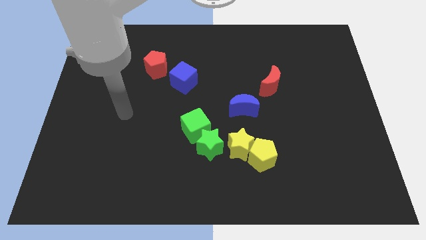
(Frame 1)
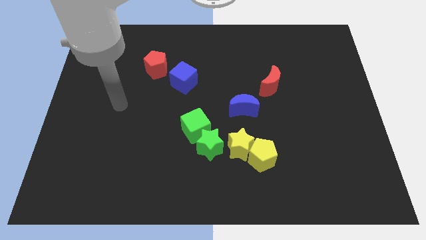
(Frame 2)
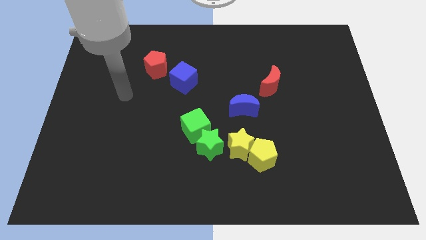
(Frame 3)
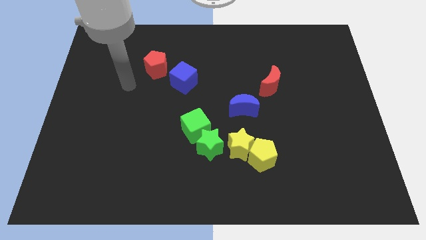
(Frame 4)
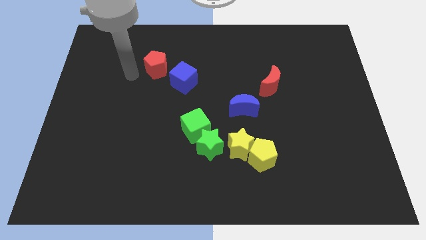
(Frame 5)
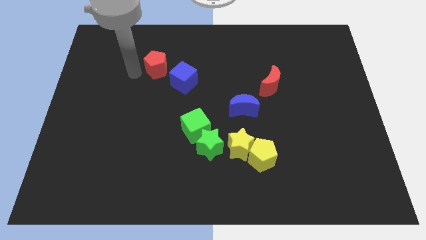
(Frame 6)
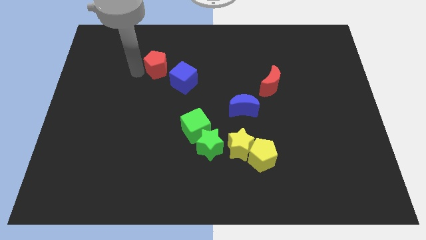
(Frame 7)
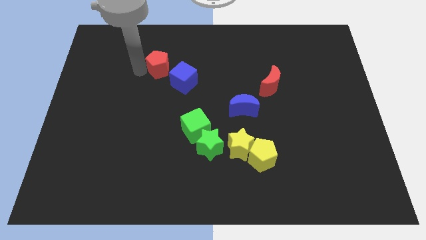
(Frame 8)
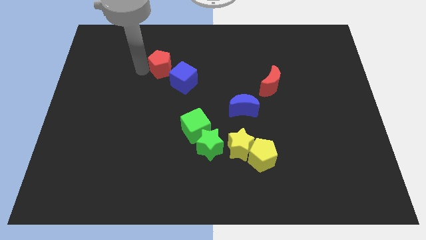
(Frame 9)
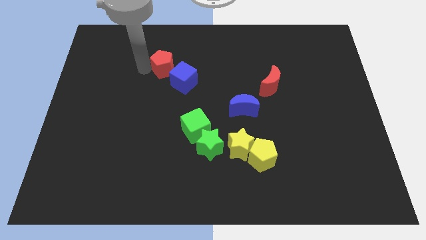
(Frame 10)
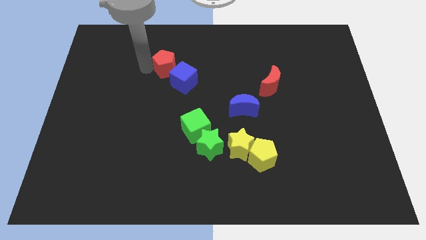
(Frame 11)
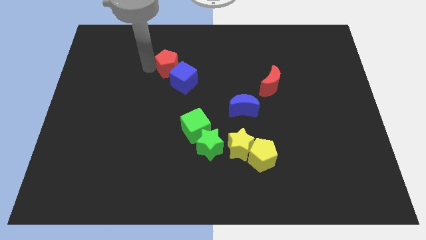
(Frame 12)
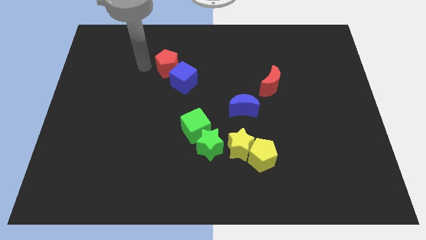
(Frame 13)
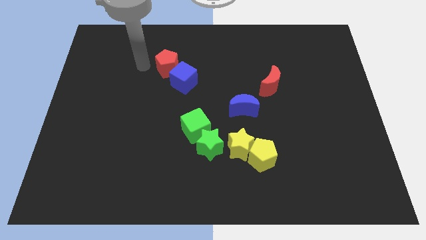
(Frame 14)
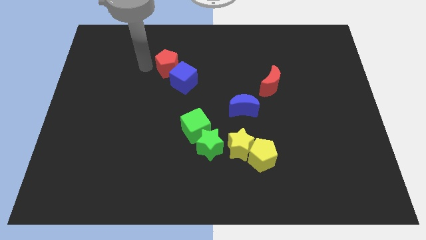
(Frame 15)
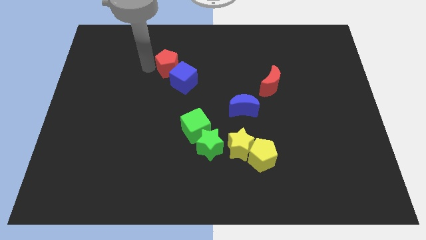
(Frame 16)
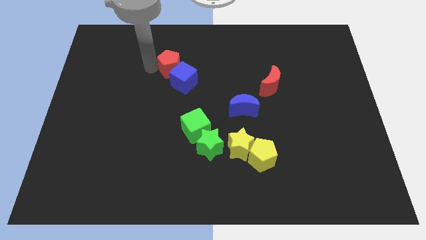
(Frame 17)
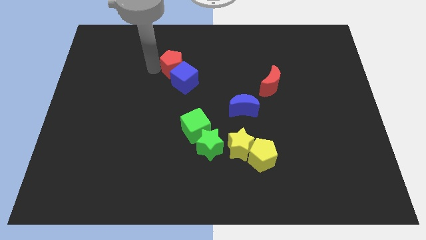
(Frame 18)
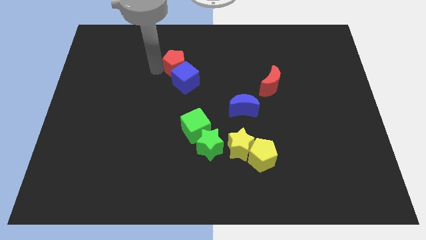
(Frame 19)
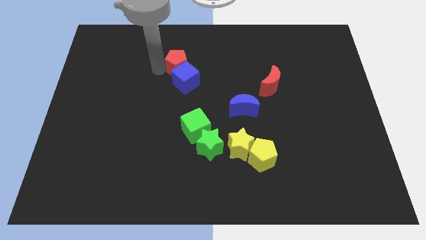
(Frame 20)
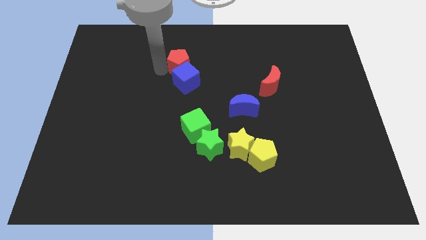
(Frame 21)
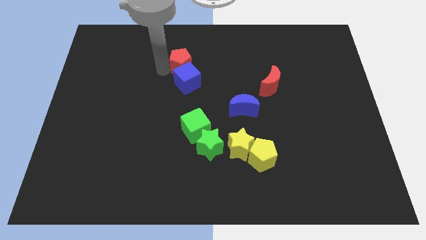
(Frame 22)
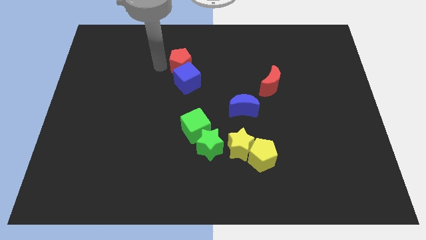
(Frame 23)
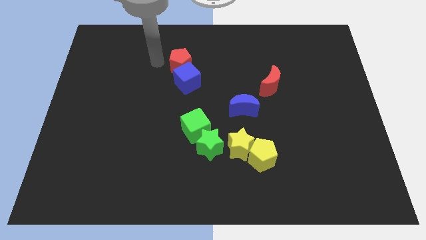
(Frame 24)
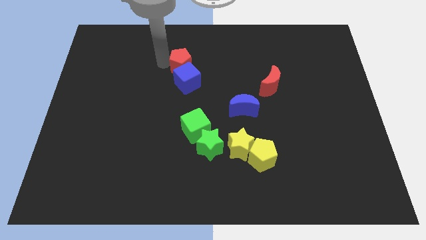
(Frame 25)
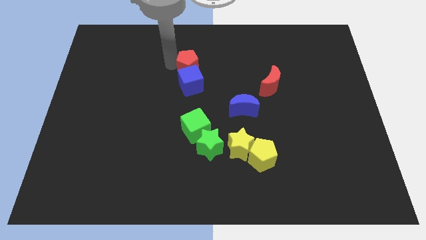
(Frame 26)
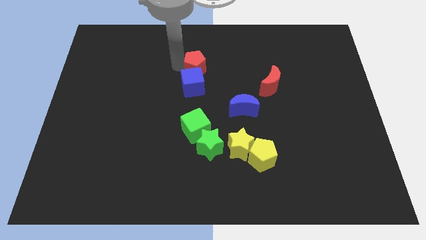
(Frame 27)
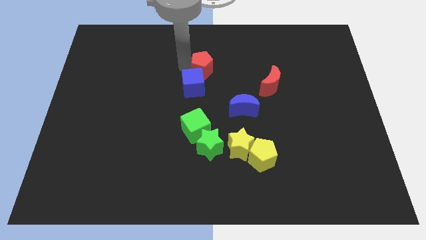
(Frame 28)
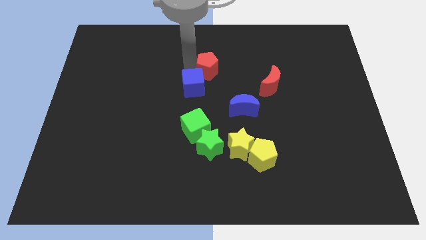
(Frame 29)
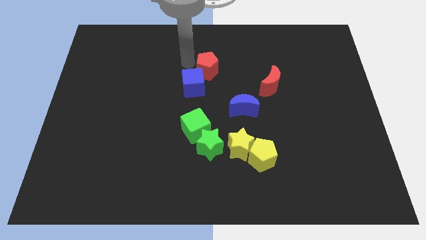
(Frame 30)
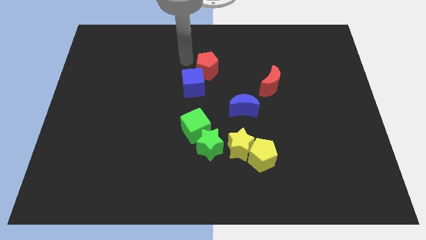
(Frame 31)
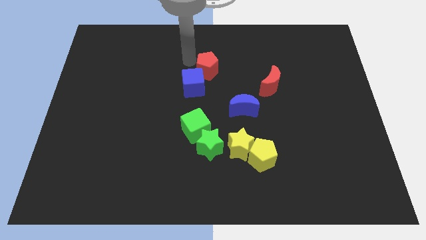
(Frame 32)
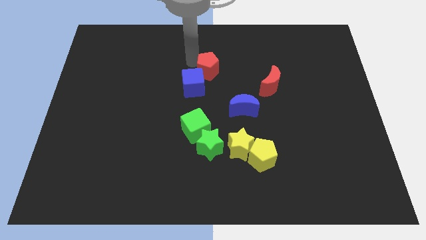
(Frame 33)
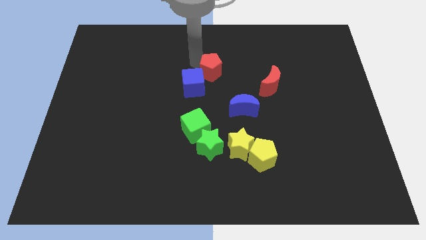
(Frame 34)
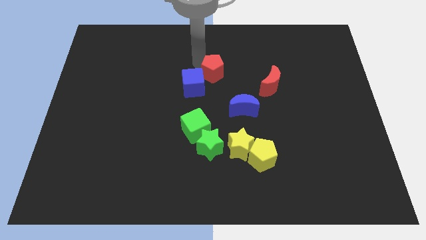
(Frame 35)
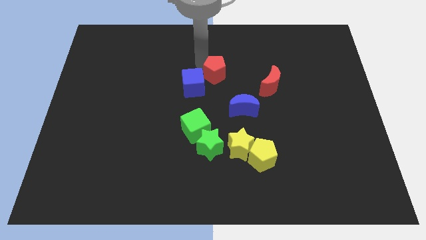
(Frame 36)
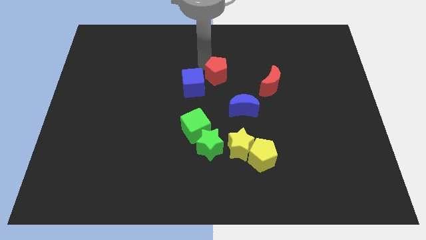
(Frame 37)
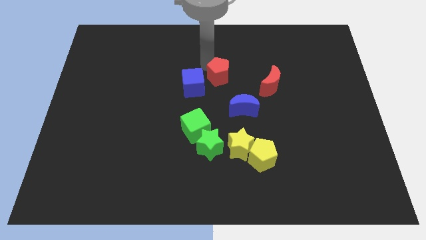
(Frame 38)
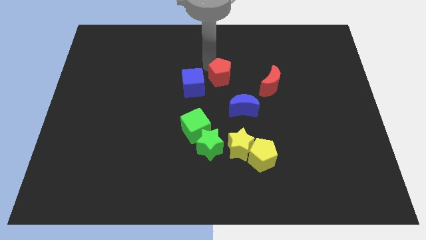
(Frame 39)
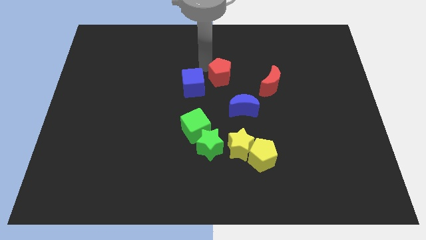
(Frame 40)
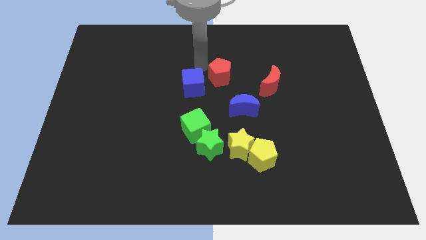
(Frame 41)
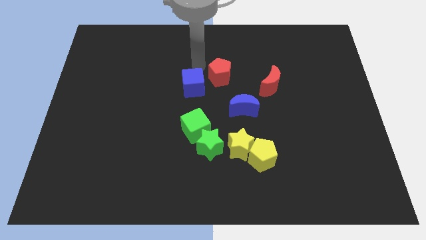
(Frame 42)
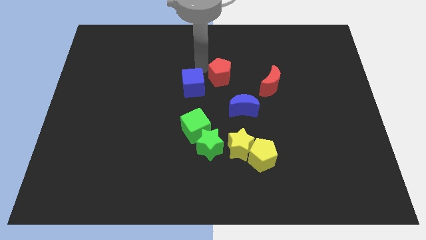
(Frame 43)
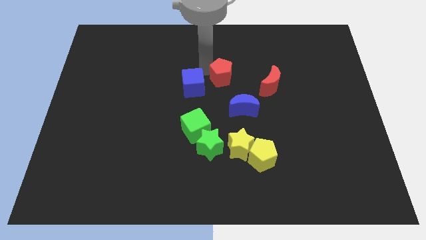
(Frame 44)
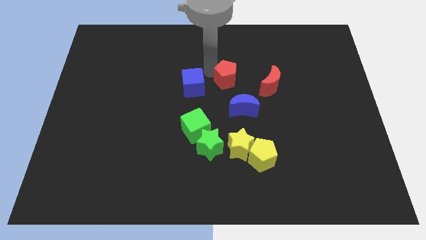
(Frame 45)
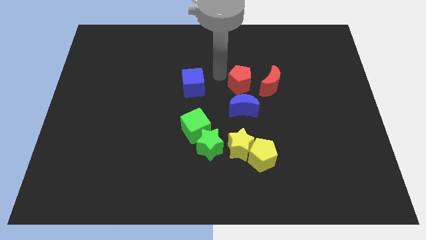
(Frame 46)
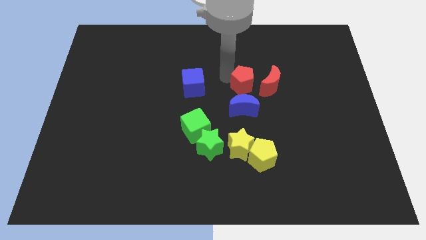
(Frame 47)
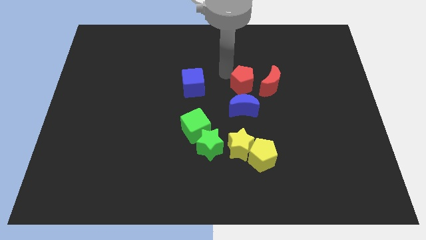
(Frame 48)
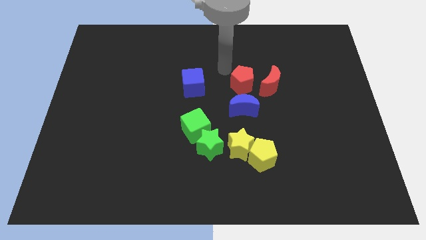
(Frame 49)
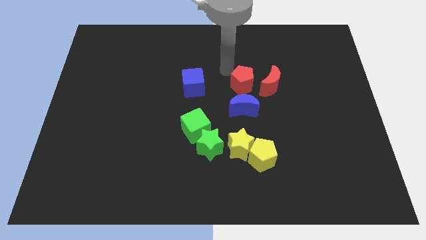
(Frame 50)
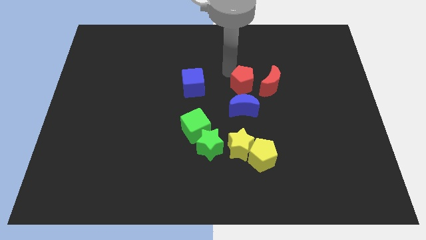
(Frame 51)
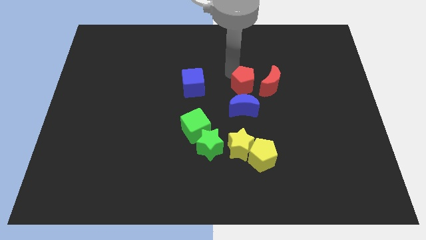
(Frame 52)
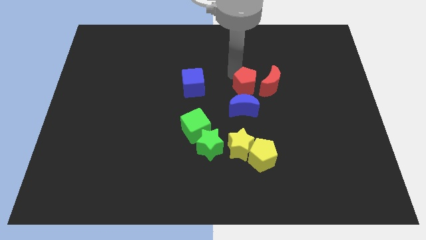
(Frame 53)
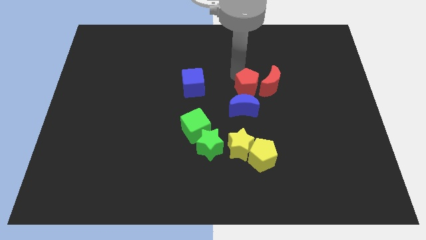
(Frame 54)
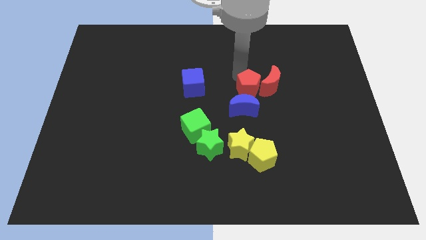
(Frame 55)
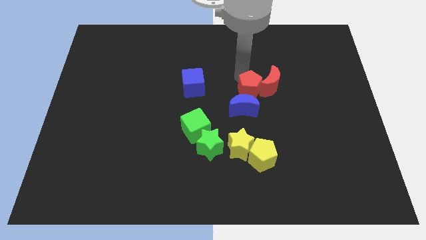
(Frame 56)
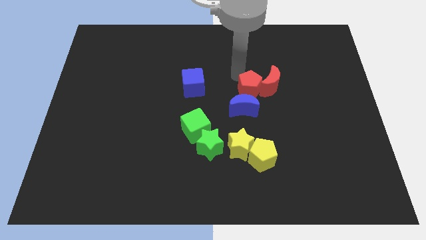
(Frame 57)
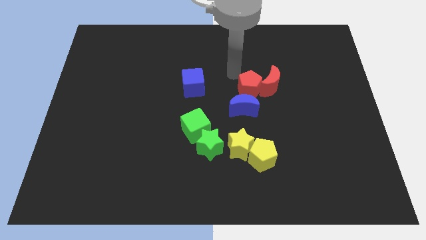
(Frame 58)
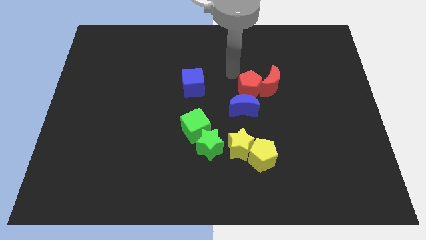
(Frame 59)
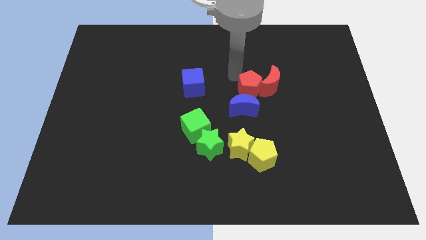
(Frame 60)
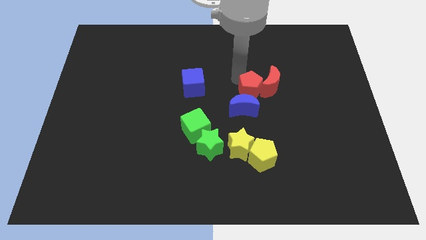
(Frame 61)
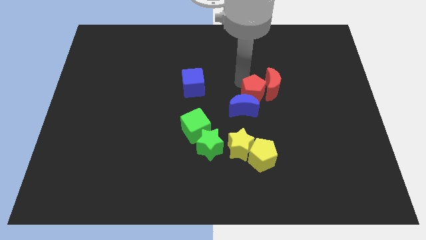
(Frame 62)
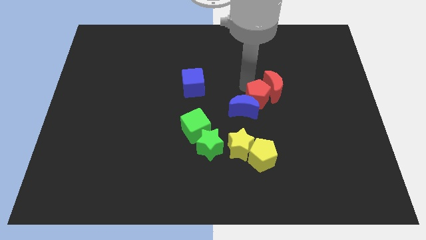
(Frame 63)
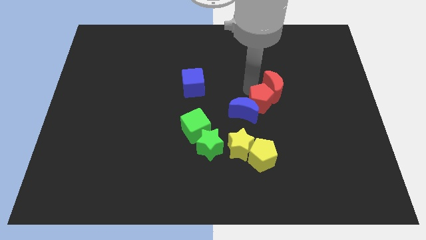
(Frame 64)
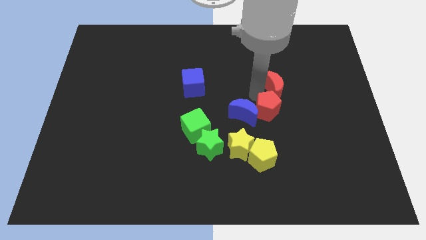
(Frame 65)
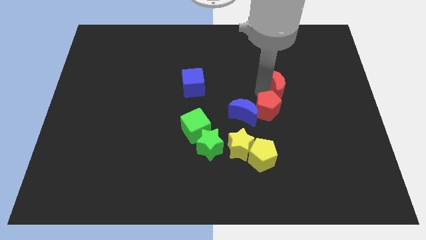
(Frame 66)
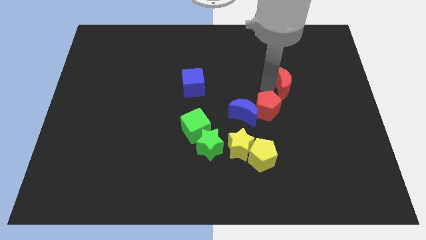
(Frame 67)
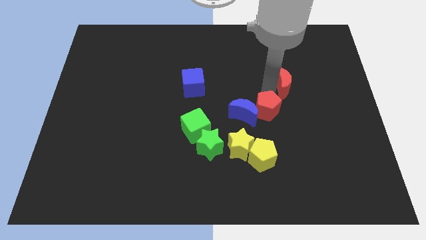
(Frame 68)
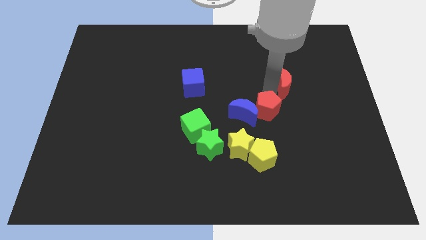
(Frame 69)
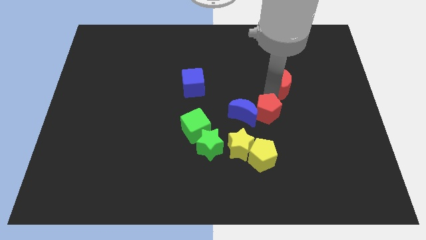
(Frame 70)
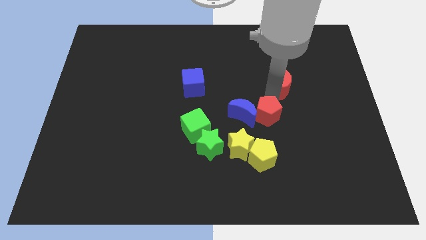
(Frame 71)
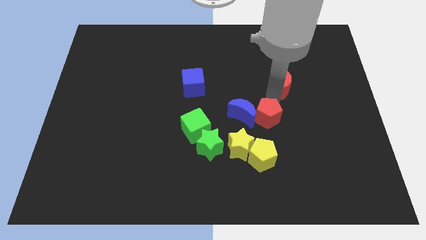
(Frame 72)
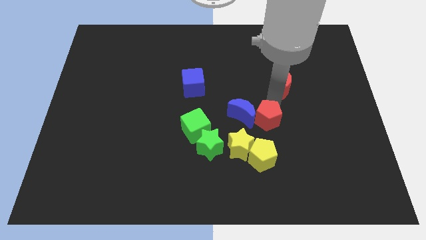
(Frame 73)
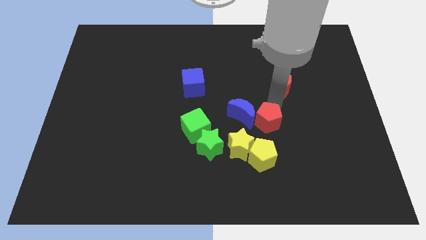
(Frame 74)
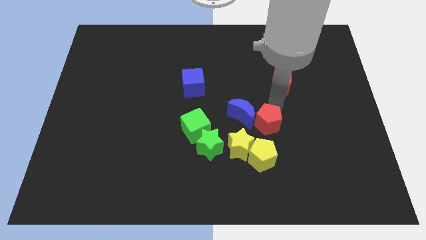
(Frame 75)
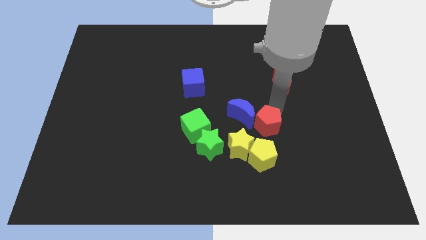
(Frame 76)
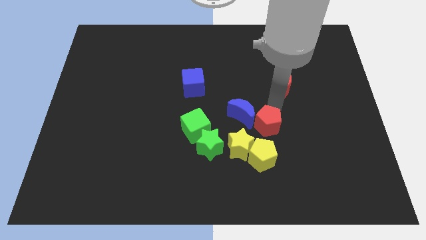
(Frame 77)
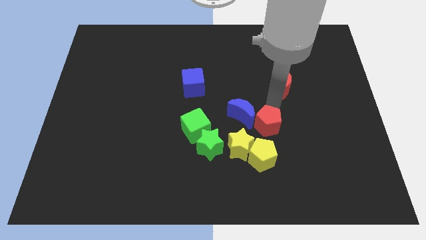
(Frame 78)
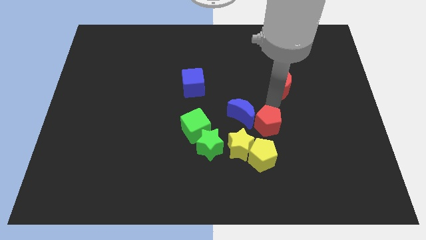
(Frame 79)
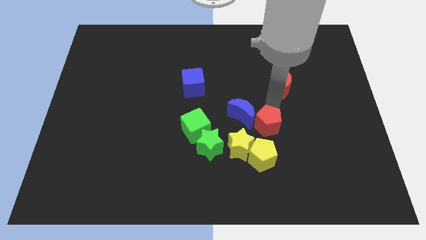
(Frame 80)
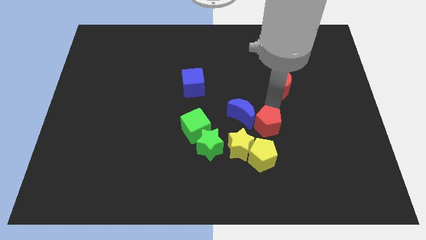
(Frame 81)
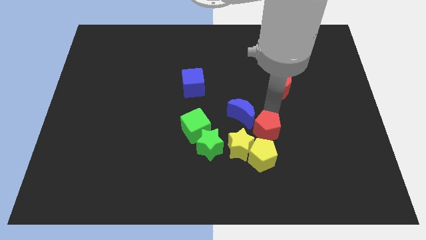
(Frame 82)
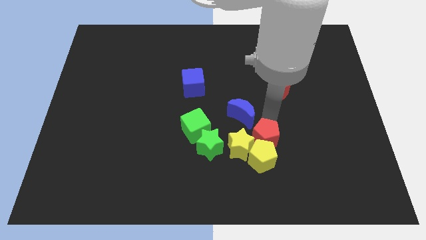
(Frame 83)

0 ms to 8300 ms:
put the red pentagon close to the yellow pentagon
